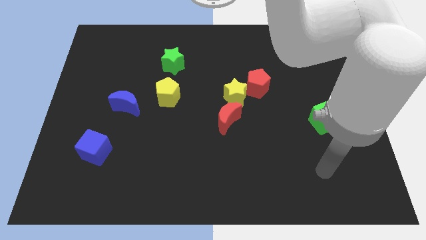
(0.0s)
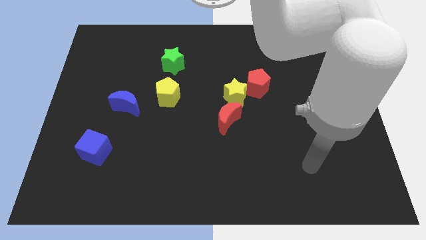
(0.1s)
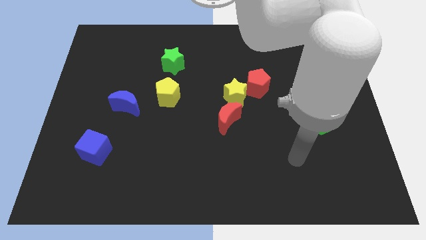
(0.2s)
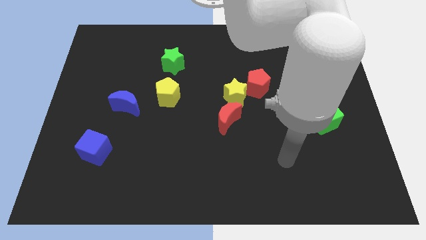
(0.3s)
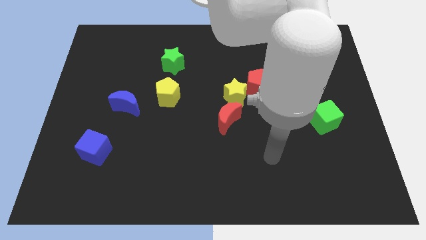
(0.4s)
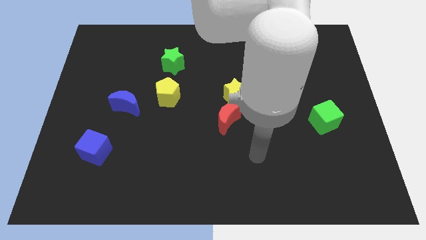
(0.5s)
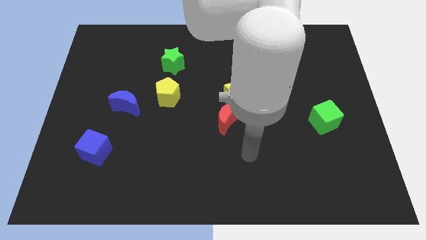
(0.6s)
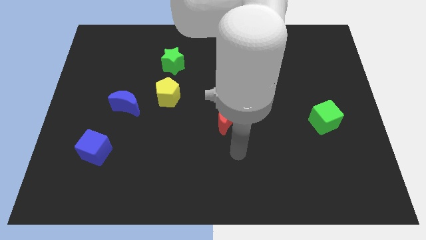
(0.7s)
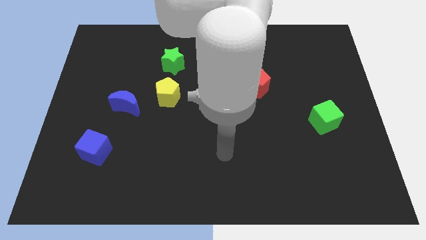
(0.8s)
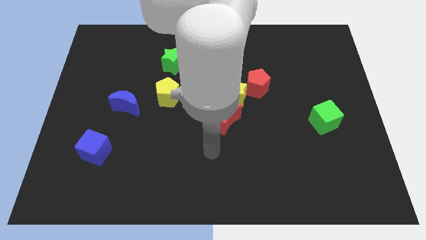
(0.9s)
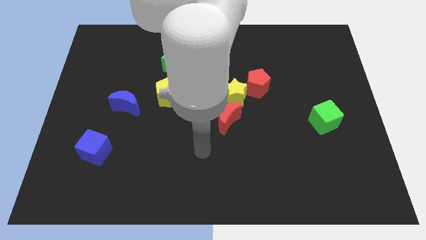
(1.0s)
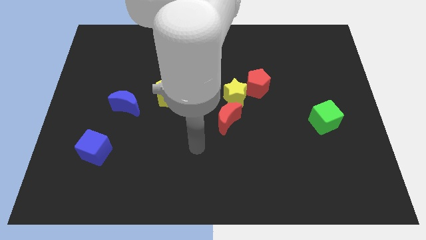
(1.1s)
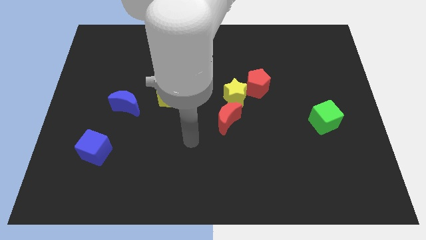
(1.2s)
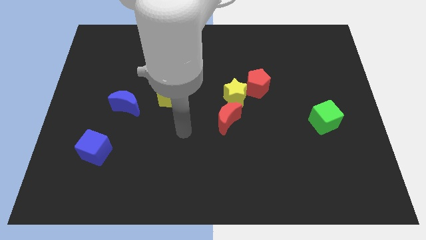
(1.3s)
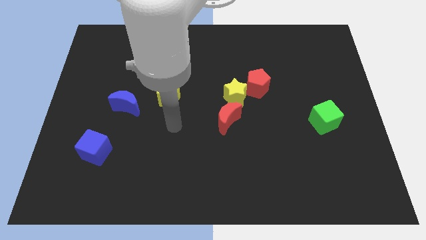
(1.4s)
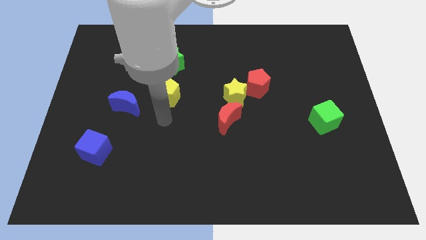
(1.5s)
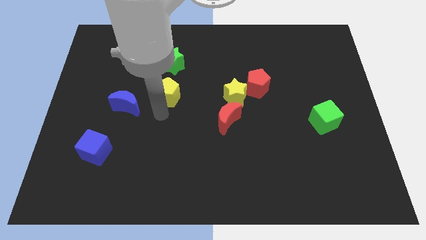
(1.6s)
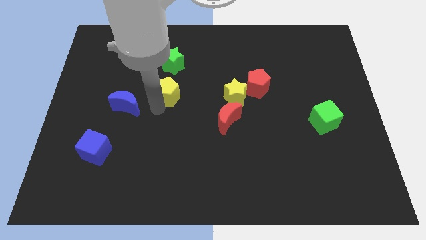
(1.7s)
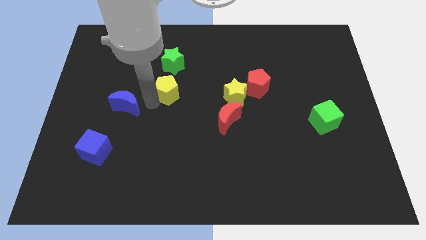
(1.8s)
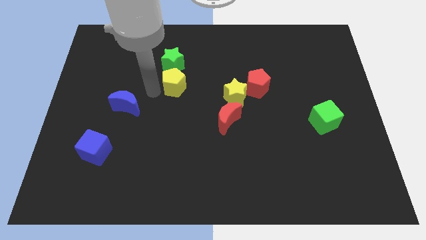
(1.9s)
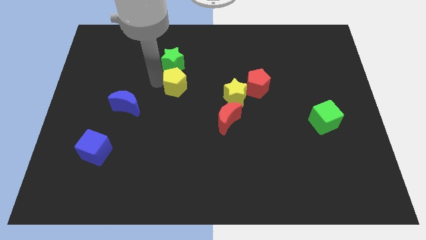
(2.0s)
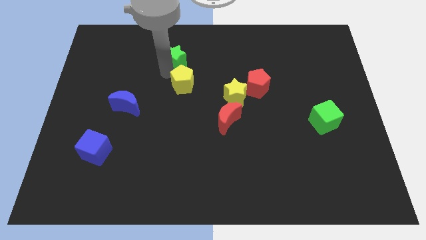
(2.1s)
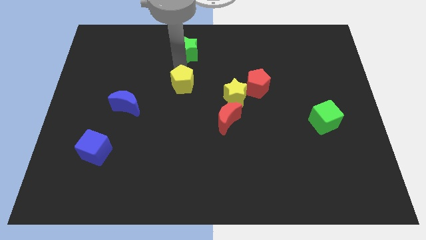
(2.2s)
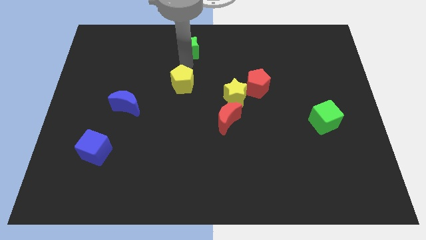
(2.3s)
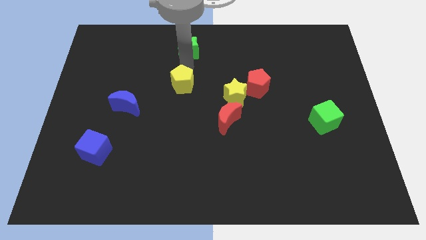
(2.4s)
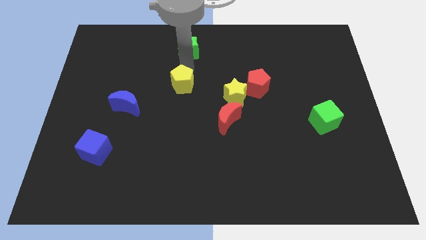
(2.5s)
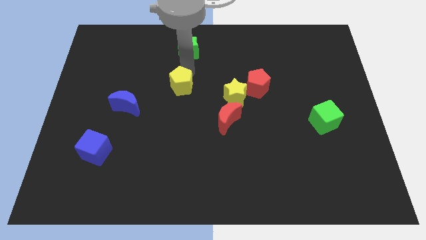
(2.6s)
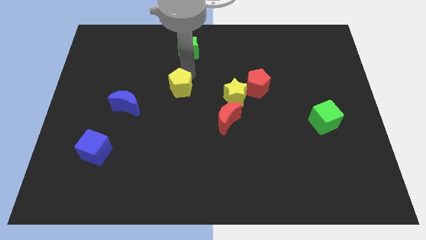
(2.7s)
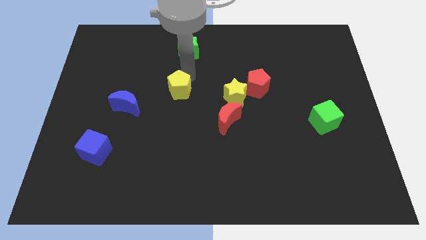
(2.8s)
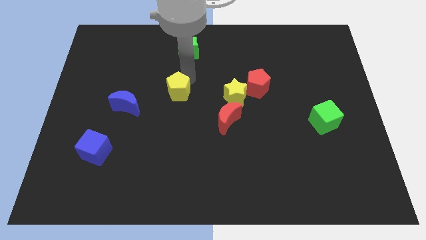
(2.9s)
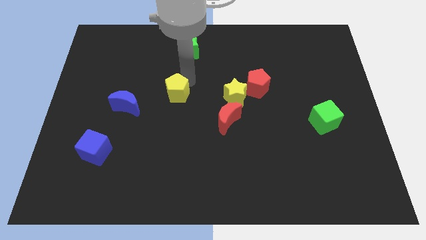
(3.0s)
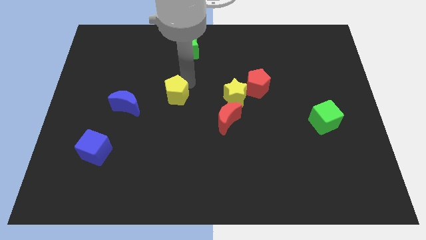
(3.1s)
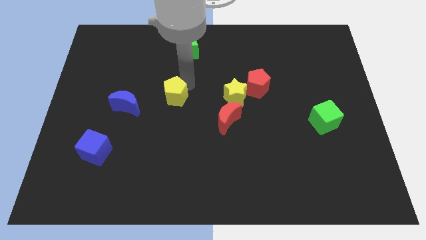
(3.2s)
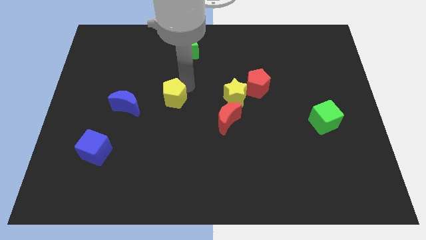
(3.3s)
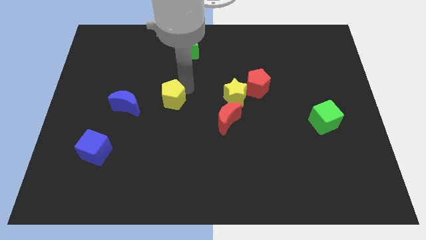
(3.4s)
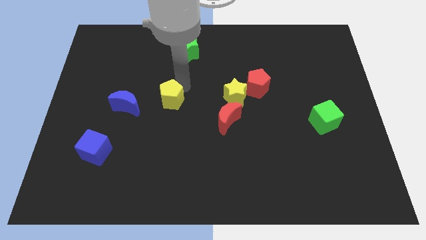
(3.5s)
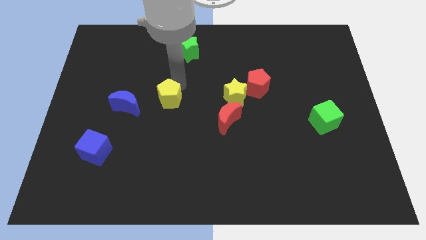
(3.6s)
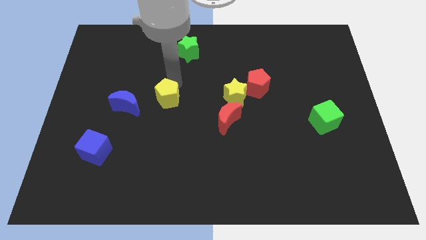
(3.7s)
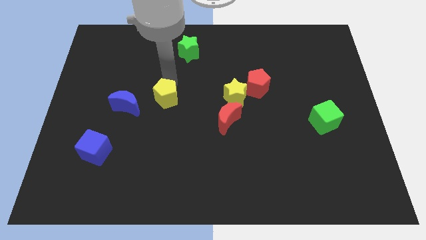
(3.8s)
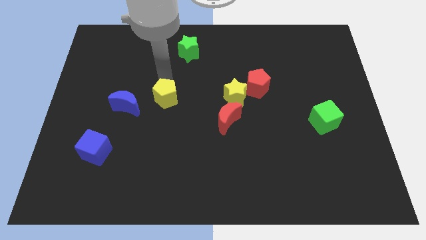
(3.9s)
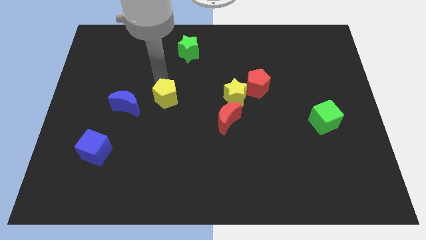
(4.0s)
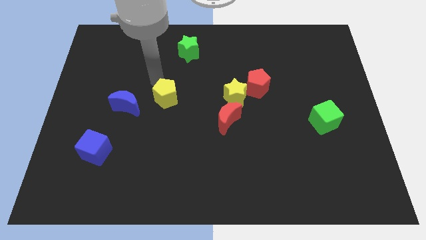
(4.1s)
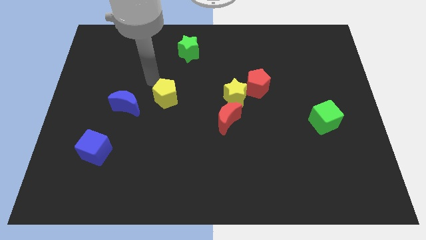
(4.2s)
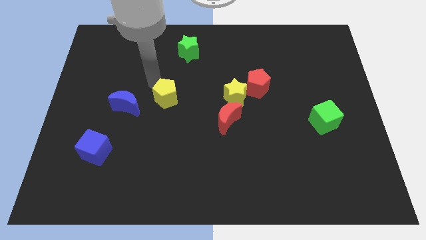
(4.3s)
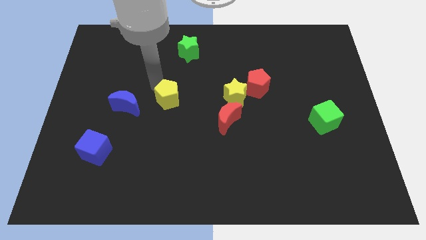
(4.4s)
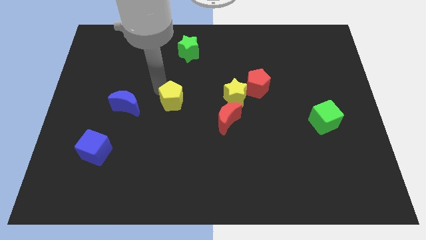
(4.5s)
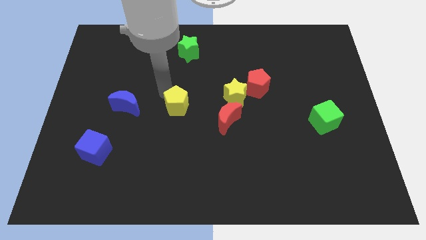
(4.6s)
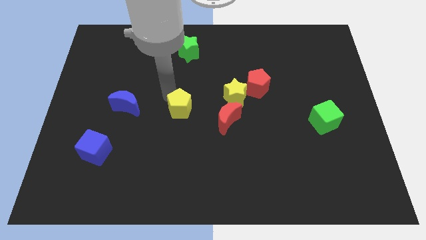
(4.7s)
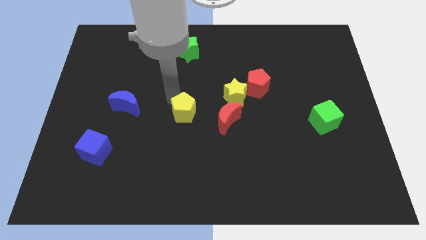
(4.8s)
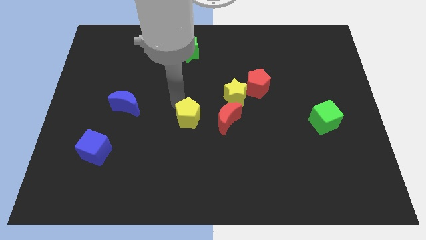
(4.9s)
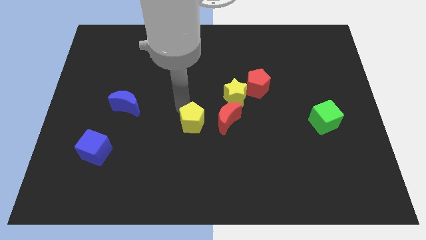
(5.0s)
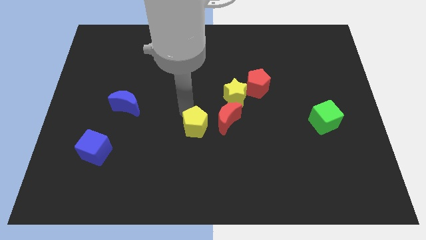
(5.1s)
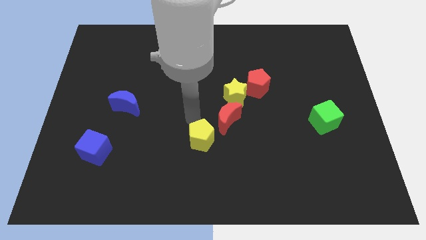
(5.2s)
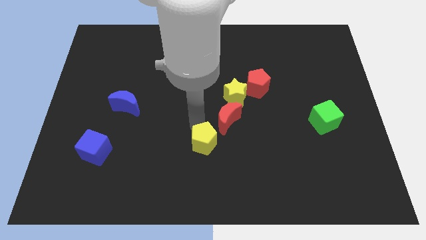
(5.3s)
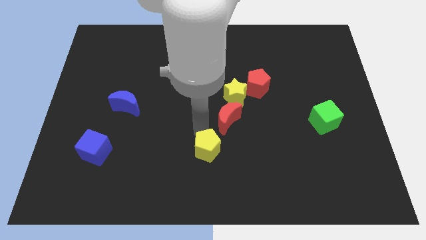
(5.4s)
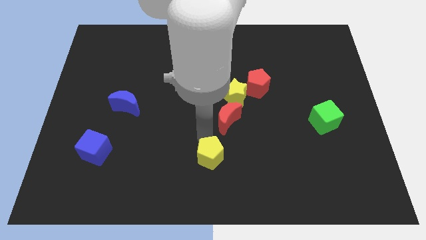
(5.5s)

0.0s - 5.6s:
push the yellow pentagon to the bottom side

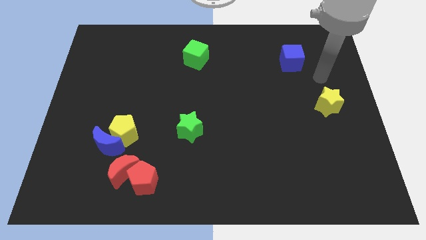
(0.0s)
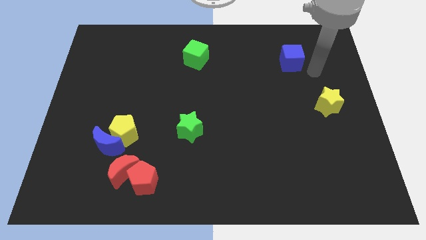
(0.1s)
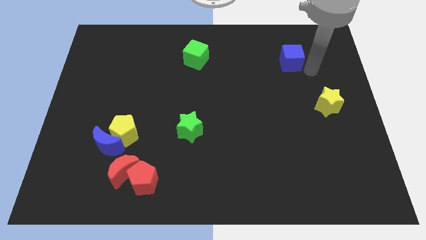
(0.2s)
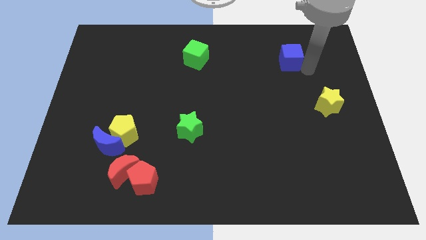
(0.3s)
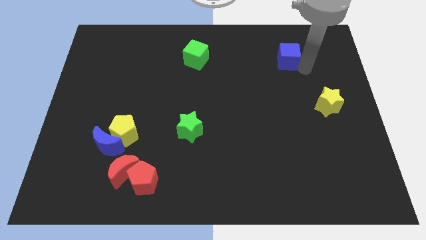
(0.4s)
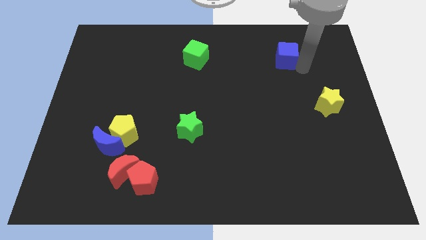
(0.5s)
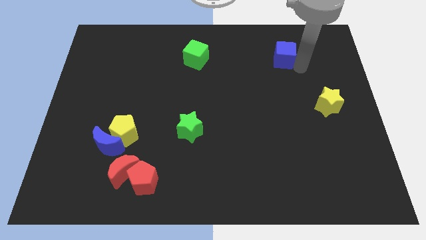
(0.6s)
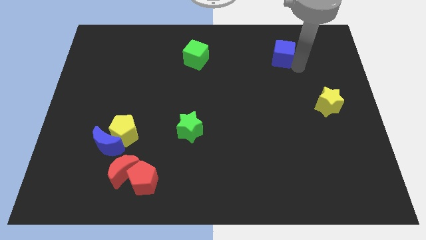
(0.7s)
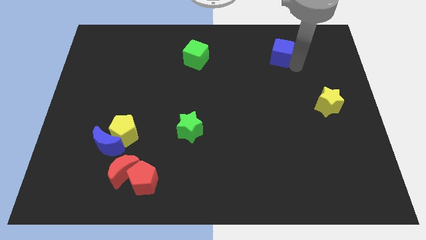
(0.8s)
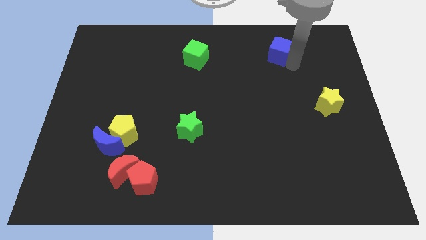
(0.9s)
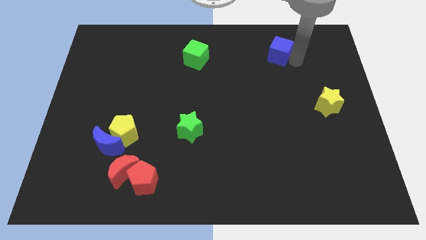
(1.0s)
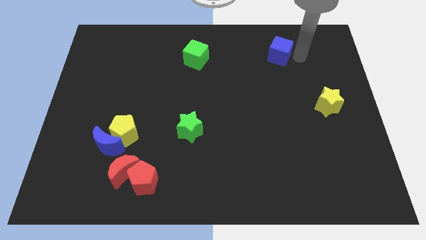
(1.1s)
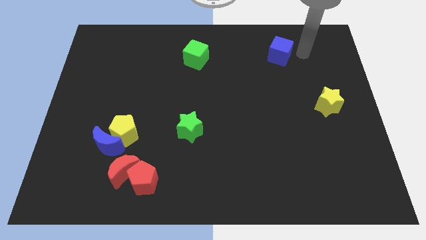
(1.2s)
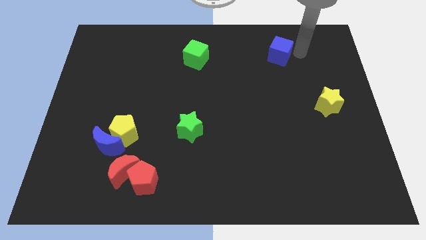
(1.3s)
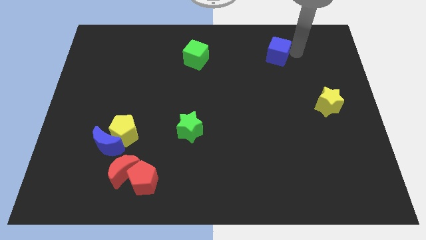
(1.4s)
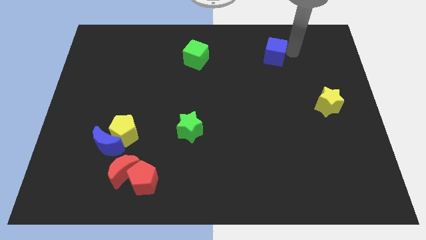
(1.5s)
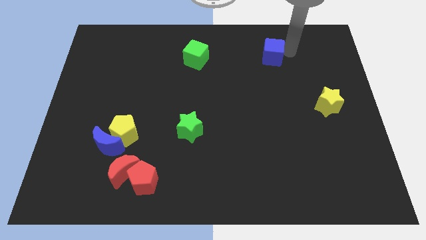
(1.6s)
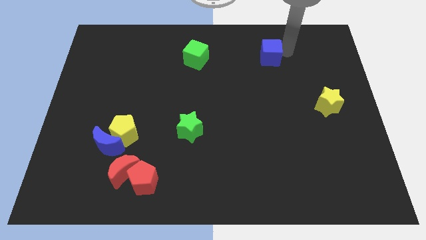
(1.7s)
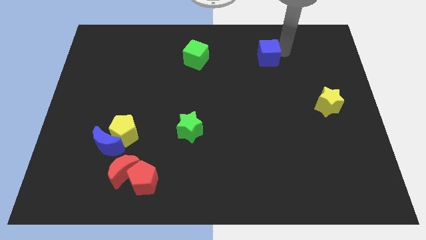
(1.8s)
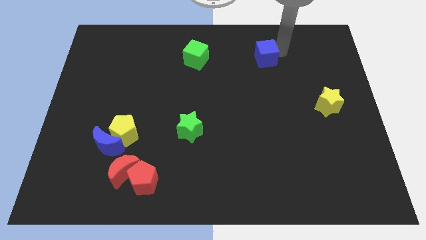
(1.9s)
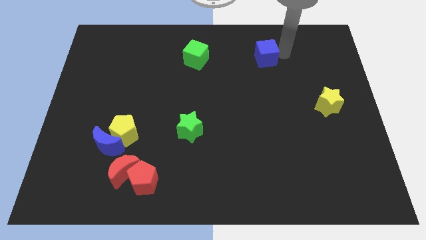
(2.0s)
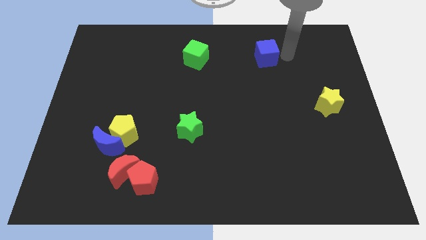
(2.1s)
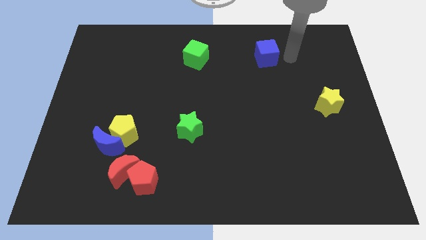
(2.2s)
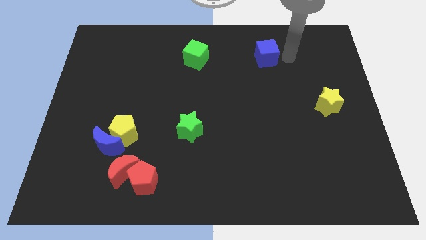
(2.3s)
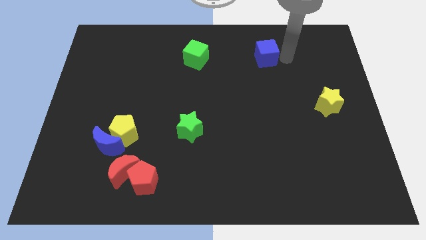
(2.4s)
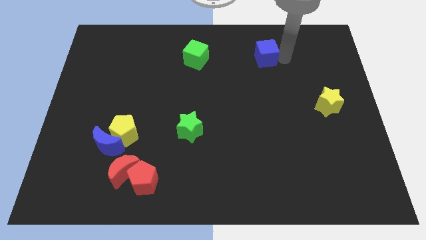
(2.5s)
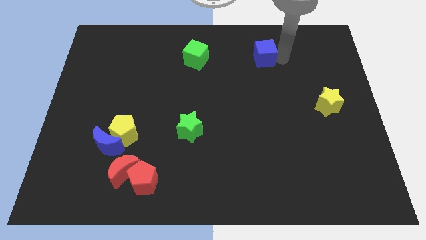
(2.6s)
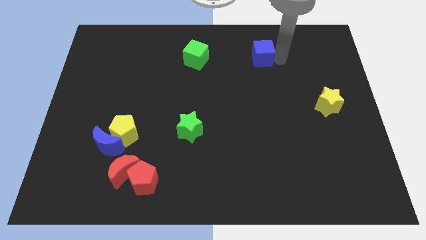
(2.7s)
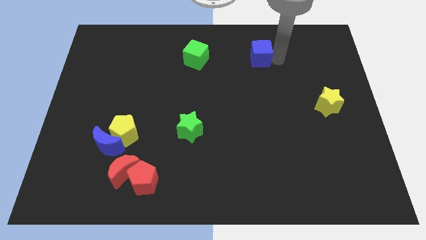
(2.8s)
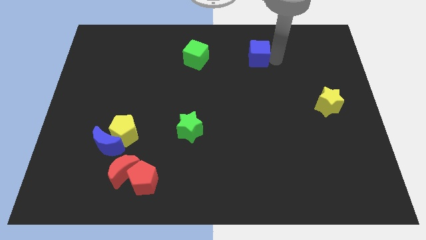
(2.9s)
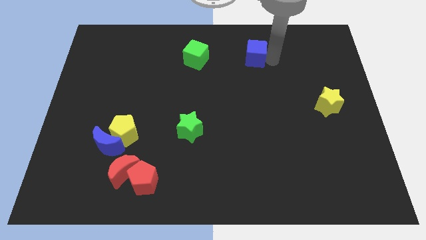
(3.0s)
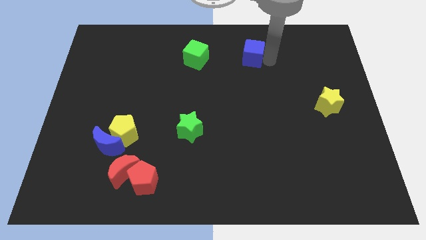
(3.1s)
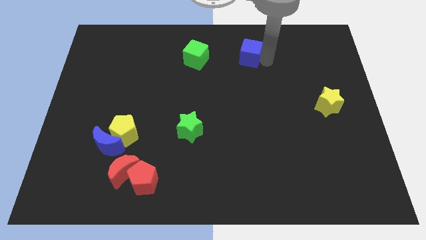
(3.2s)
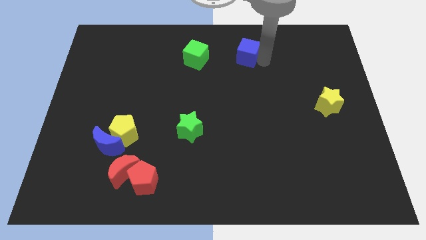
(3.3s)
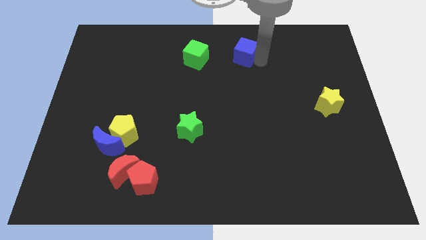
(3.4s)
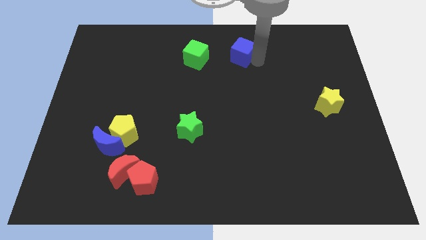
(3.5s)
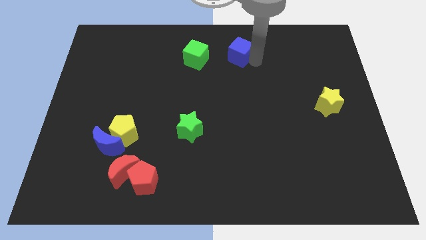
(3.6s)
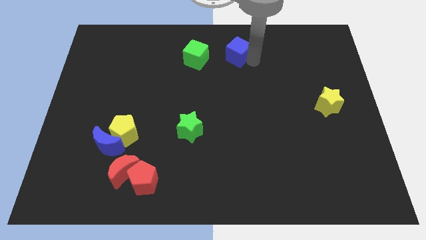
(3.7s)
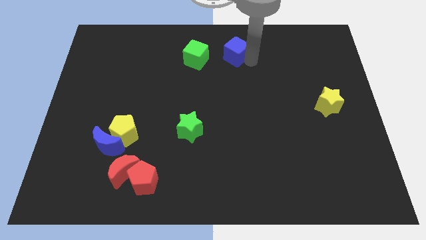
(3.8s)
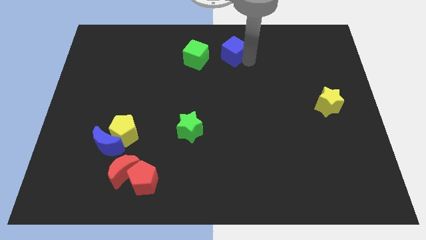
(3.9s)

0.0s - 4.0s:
put the blue cube to the top side
